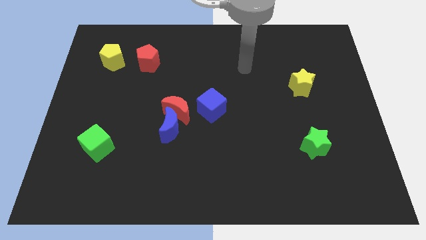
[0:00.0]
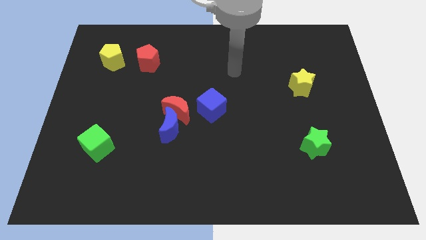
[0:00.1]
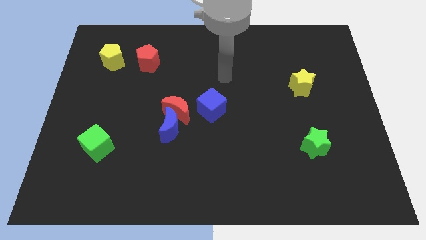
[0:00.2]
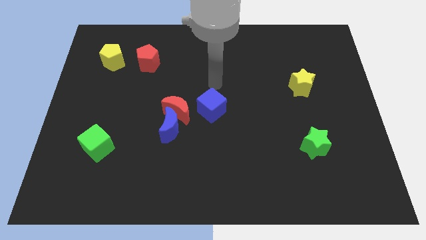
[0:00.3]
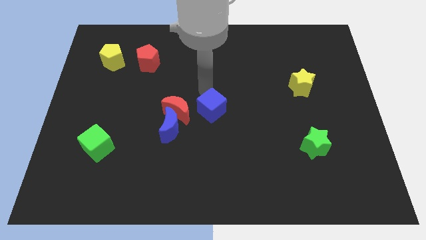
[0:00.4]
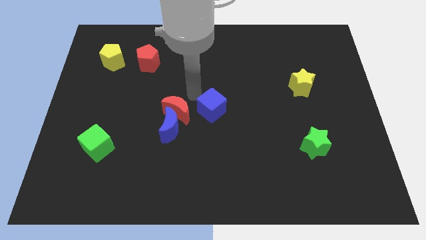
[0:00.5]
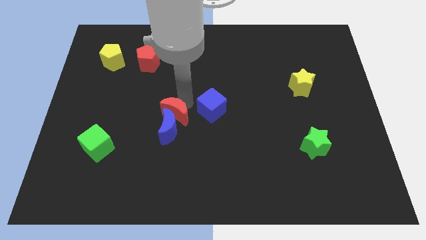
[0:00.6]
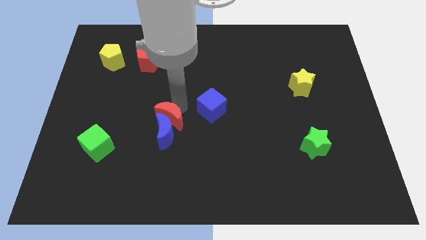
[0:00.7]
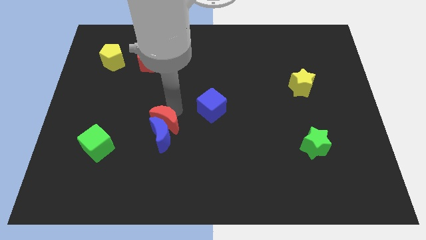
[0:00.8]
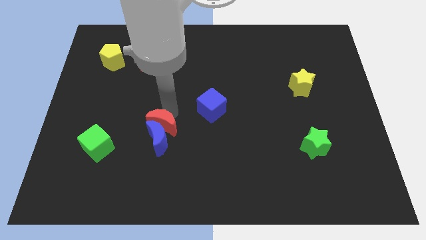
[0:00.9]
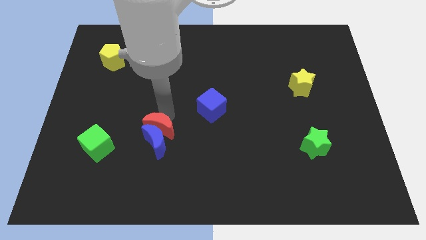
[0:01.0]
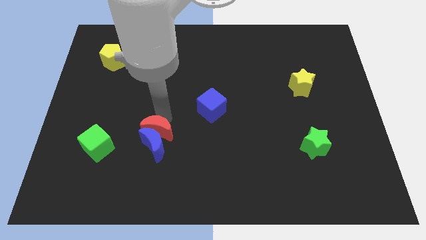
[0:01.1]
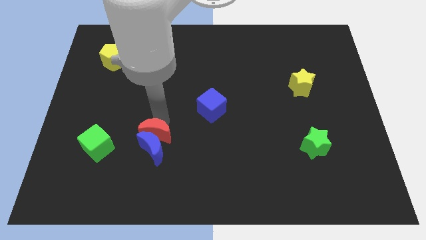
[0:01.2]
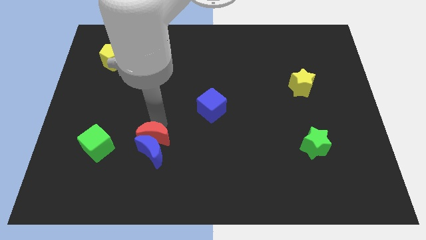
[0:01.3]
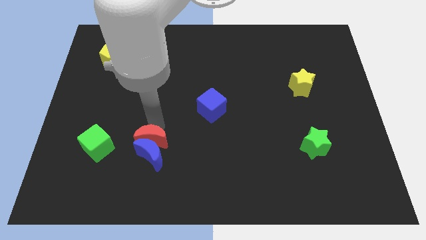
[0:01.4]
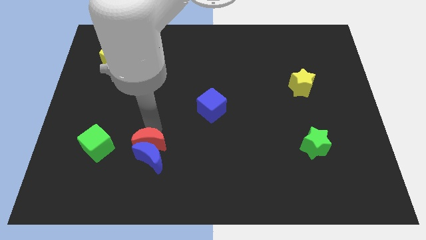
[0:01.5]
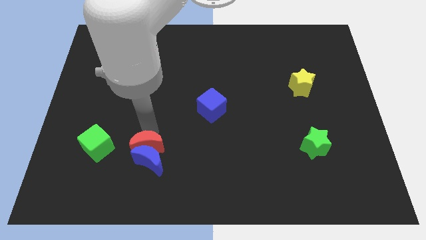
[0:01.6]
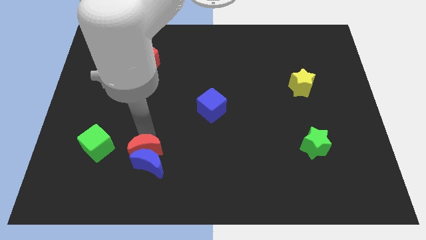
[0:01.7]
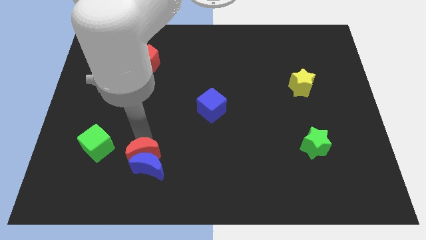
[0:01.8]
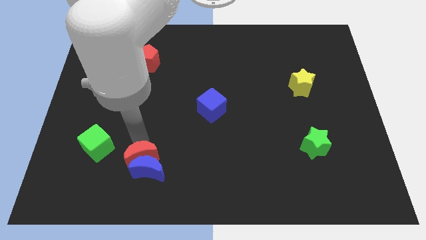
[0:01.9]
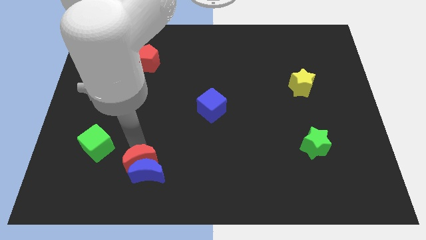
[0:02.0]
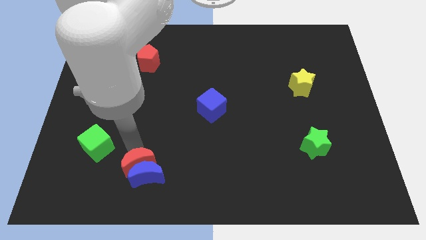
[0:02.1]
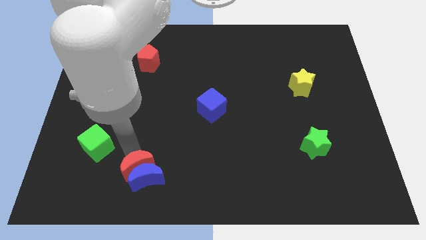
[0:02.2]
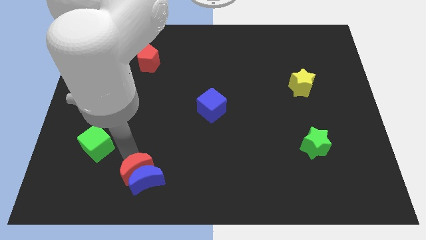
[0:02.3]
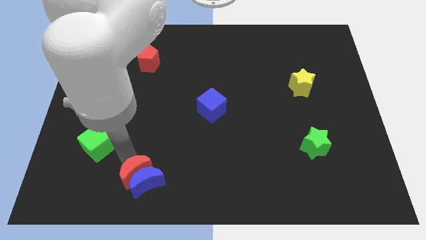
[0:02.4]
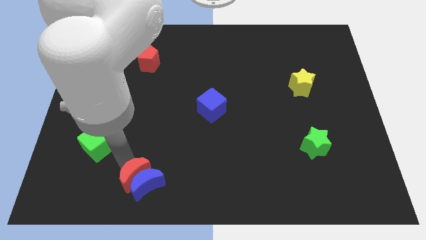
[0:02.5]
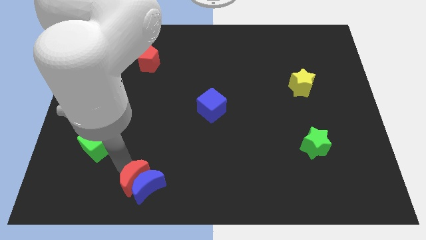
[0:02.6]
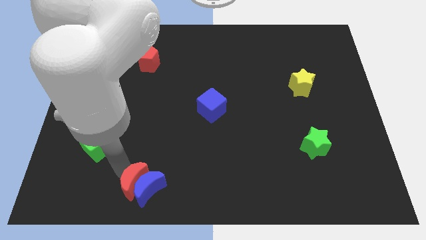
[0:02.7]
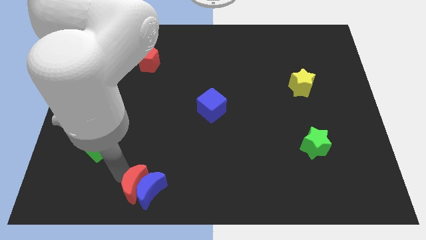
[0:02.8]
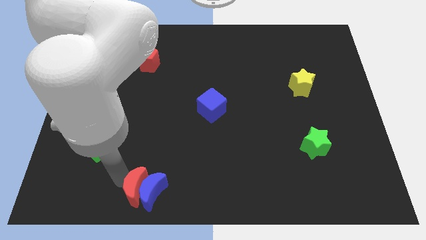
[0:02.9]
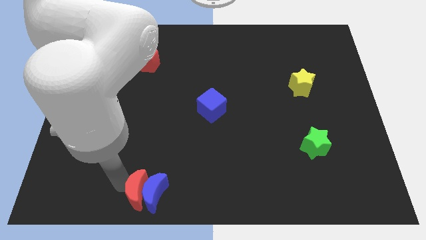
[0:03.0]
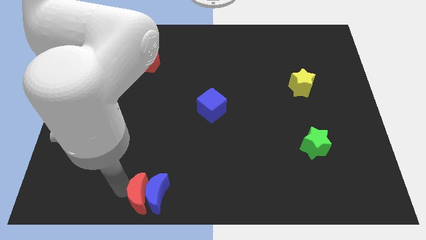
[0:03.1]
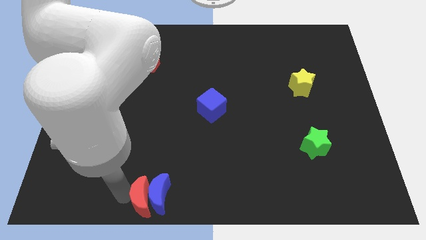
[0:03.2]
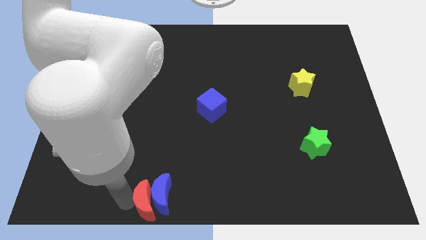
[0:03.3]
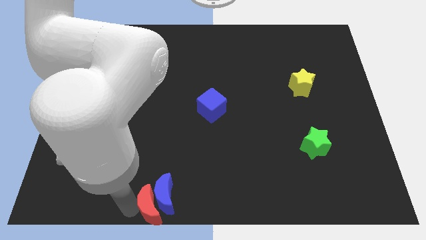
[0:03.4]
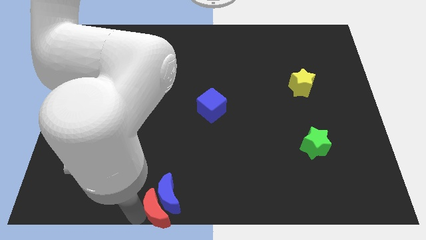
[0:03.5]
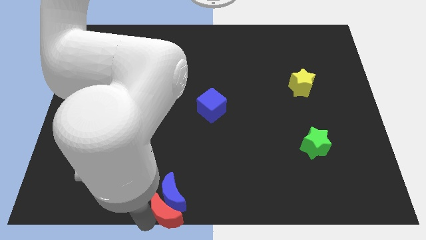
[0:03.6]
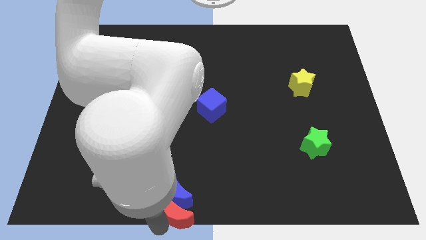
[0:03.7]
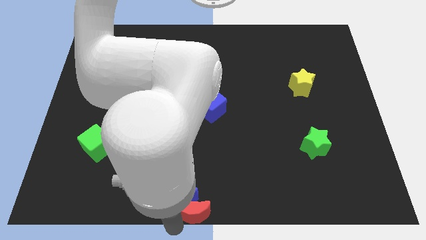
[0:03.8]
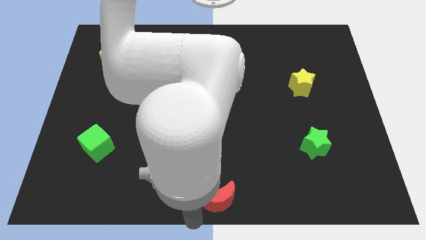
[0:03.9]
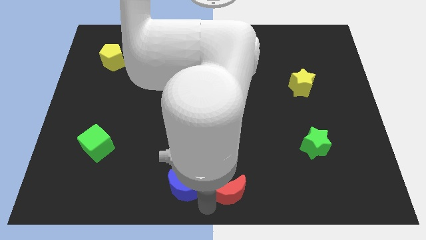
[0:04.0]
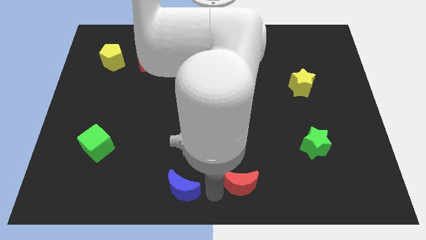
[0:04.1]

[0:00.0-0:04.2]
separate the blue moon from the red moon

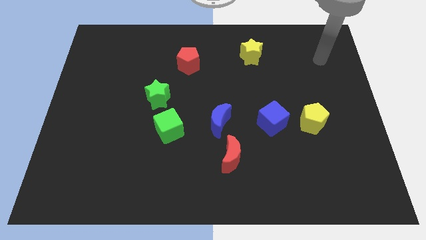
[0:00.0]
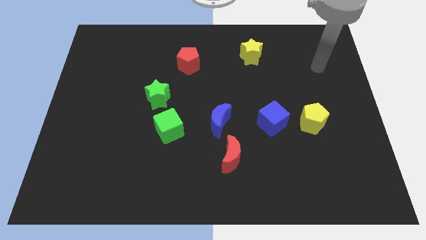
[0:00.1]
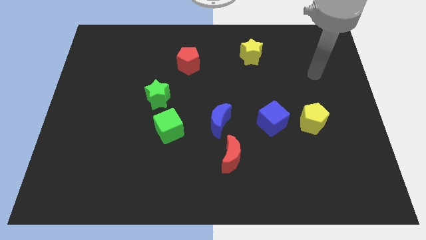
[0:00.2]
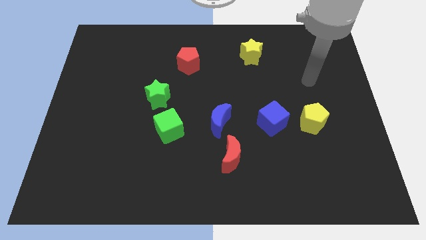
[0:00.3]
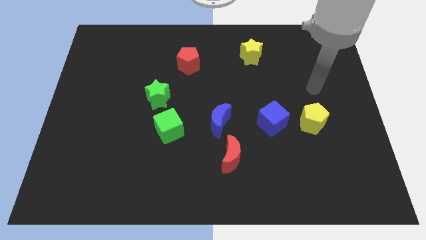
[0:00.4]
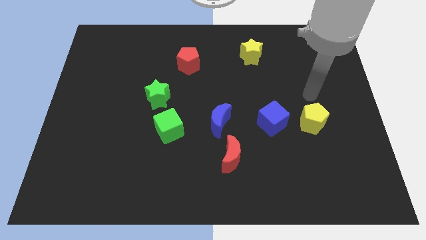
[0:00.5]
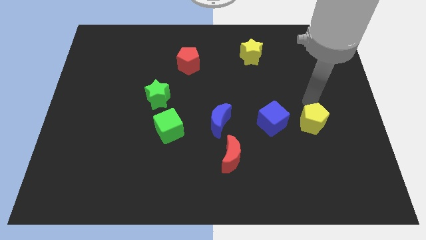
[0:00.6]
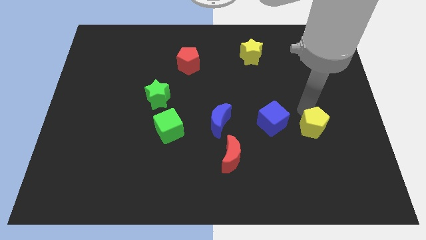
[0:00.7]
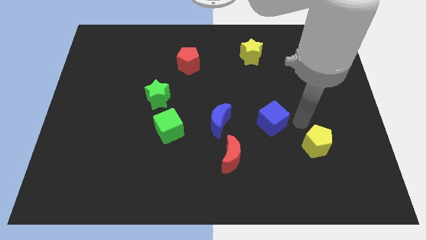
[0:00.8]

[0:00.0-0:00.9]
separate the blue cube from the yellow pentagon

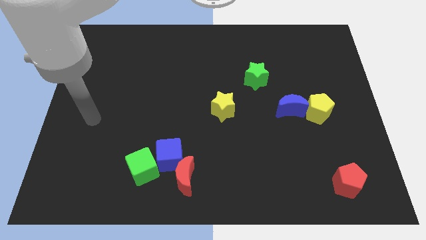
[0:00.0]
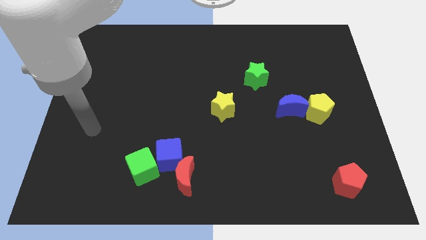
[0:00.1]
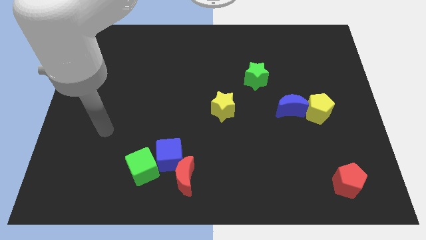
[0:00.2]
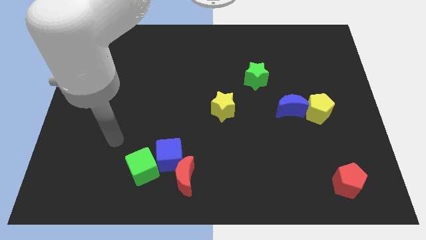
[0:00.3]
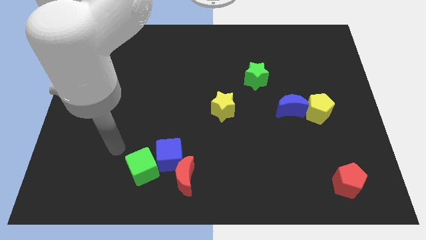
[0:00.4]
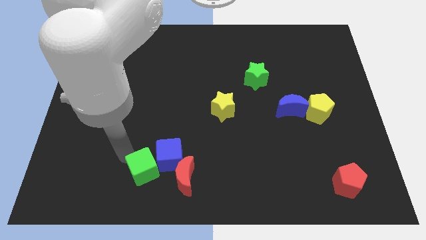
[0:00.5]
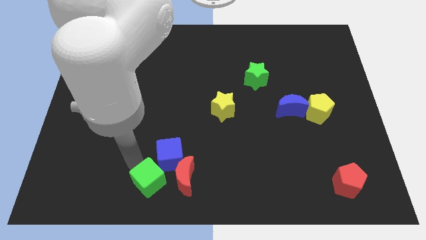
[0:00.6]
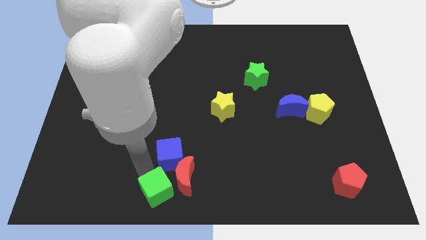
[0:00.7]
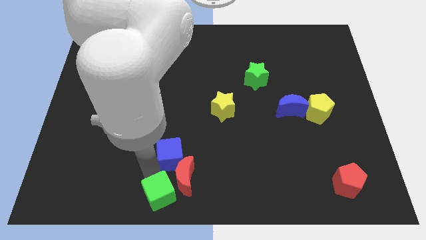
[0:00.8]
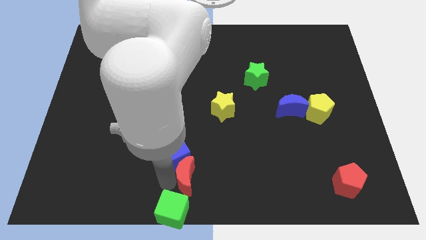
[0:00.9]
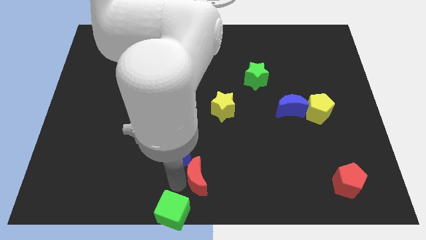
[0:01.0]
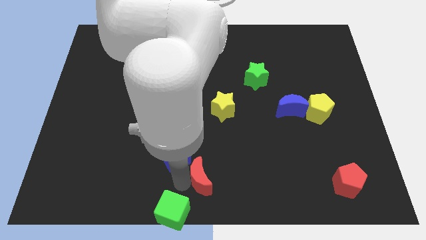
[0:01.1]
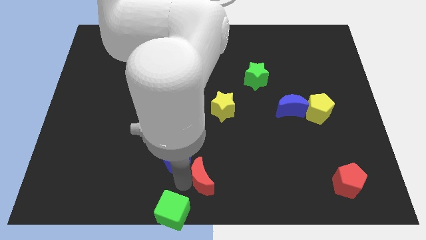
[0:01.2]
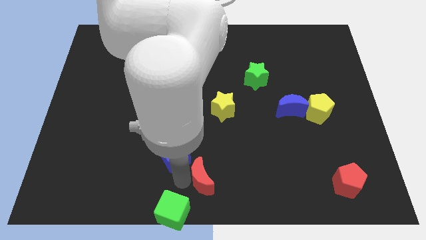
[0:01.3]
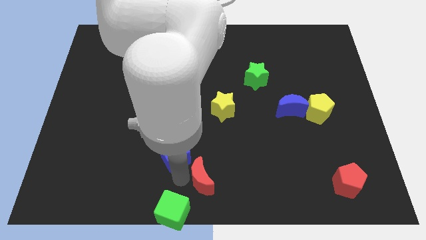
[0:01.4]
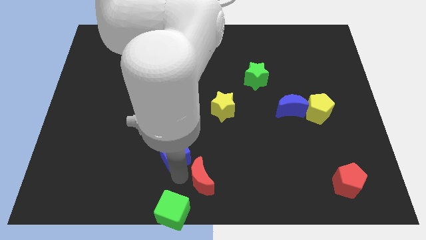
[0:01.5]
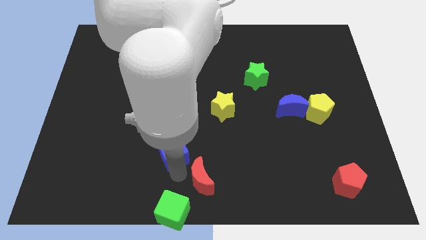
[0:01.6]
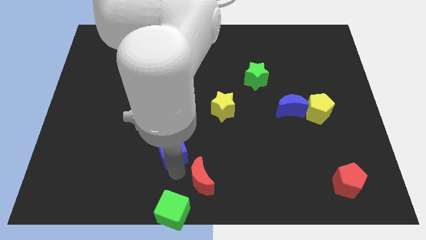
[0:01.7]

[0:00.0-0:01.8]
move the blue cube away from the red moon and green cube

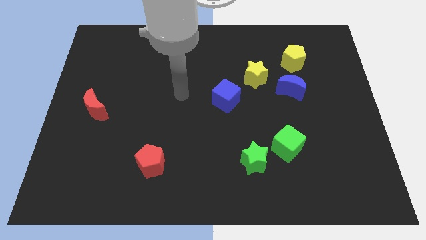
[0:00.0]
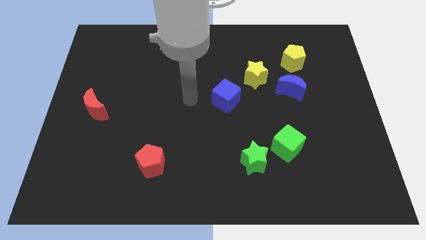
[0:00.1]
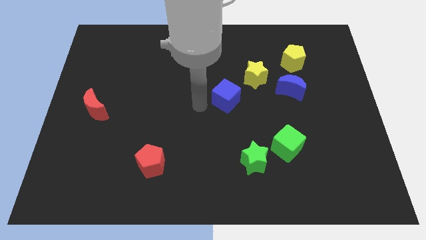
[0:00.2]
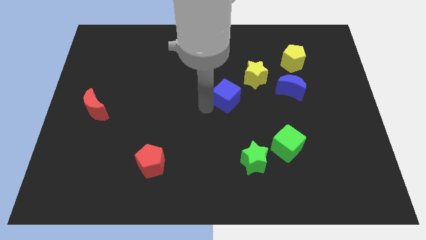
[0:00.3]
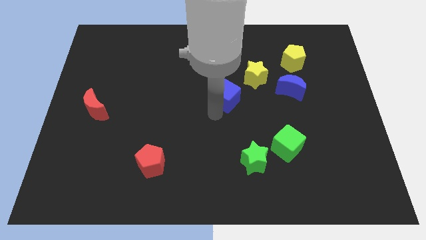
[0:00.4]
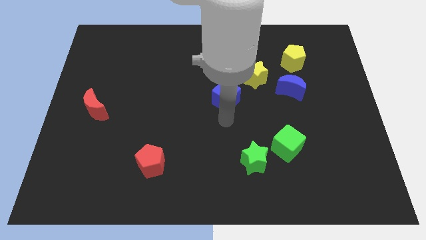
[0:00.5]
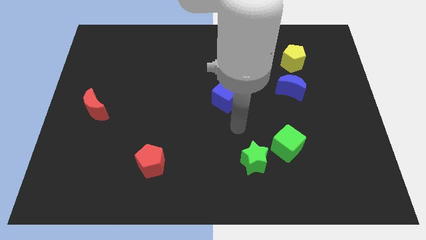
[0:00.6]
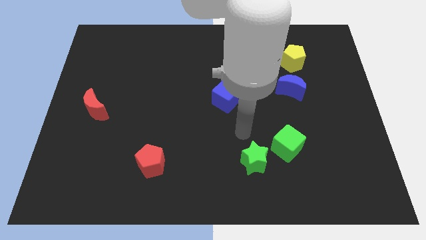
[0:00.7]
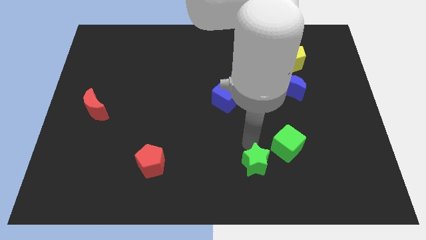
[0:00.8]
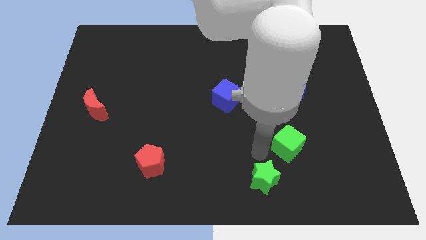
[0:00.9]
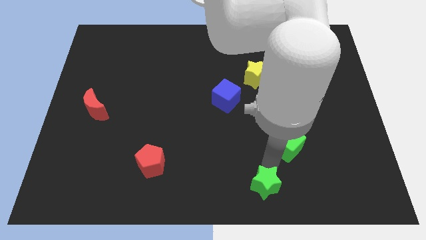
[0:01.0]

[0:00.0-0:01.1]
move the green cube away from the green star

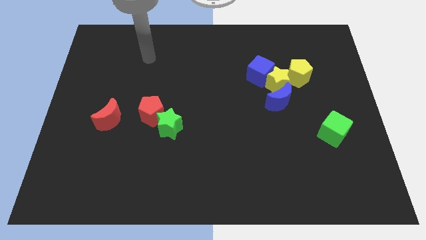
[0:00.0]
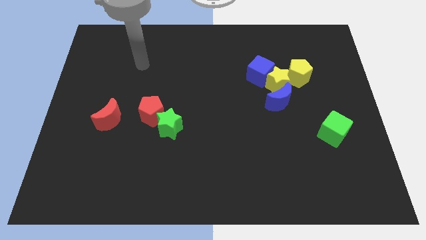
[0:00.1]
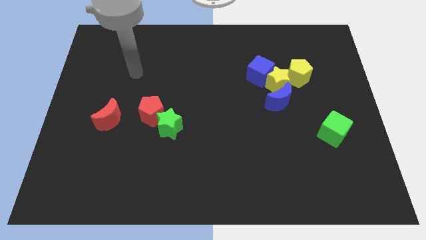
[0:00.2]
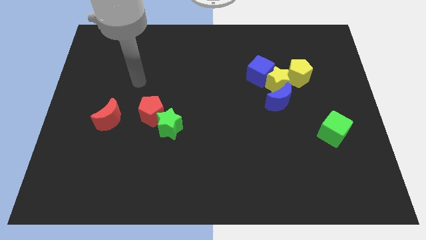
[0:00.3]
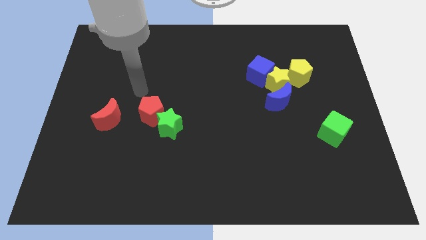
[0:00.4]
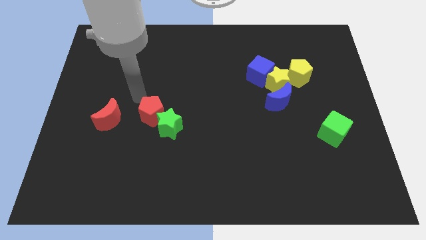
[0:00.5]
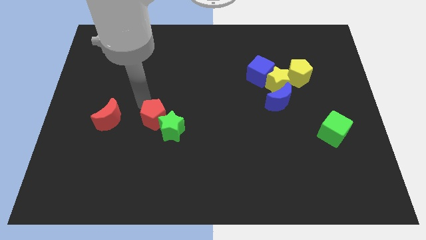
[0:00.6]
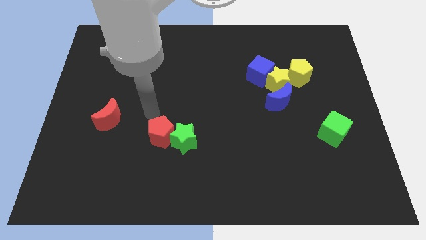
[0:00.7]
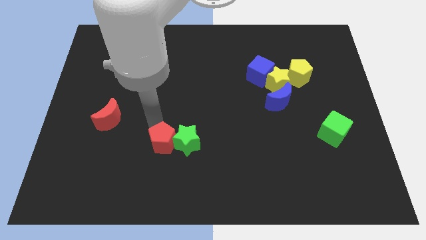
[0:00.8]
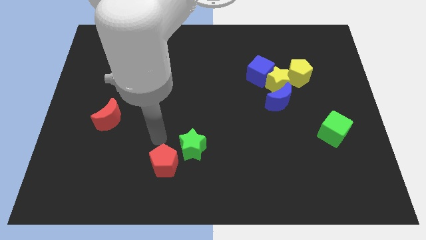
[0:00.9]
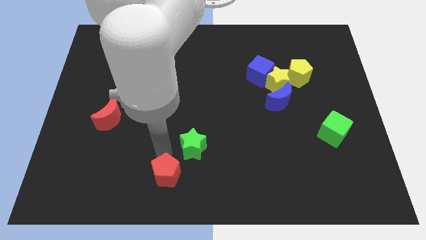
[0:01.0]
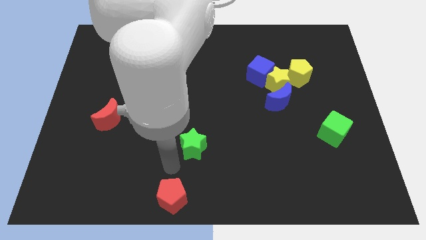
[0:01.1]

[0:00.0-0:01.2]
separate the green star from the red pentagon

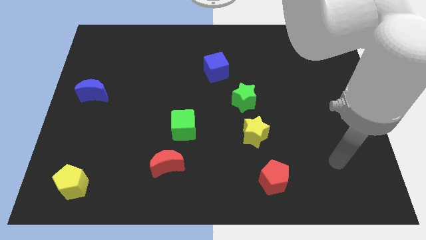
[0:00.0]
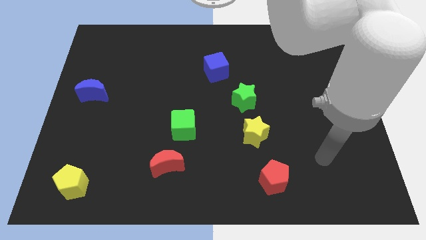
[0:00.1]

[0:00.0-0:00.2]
move the red moon away from the green cube

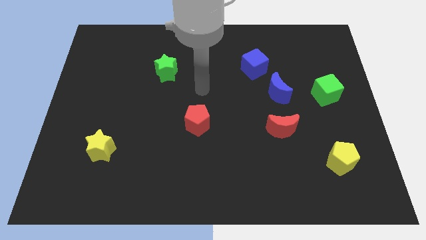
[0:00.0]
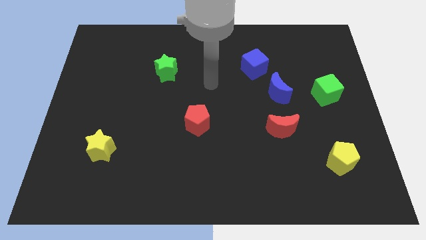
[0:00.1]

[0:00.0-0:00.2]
separate the blue moon from the blue cube
